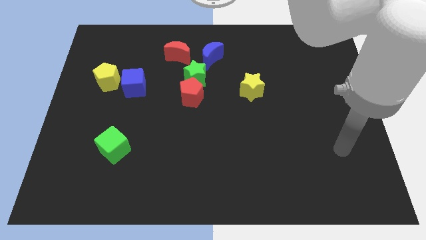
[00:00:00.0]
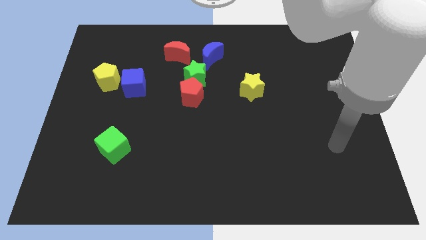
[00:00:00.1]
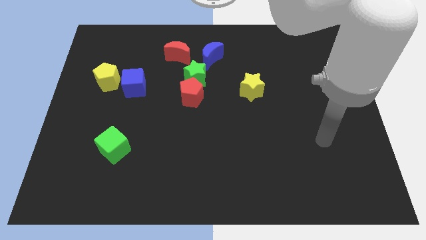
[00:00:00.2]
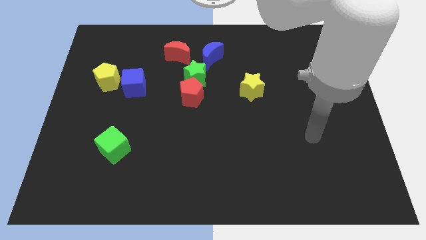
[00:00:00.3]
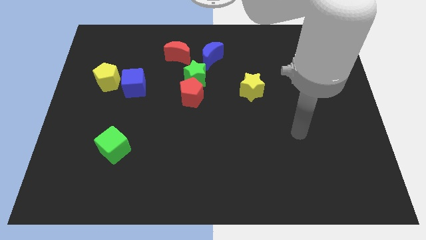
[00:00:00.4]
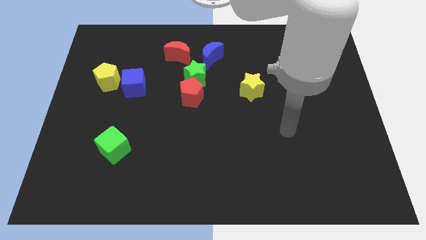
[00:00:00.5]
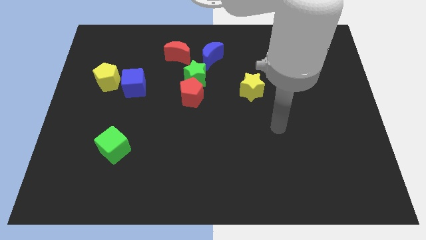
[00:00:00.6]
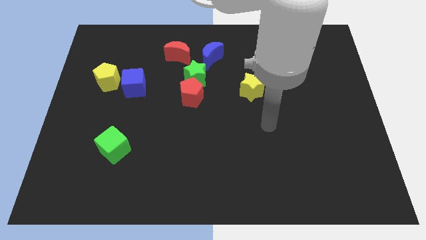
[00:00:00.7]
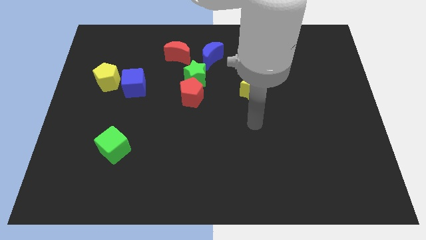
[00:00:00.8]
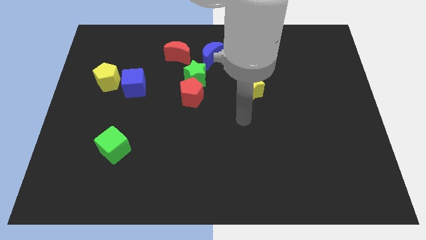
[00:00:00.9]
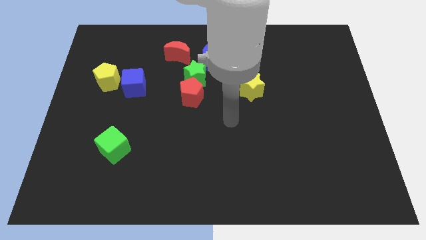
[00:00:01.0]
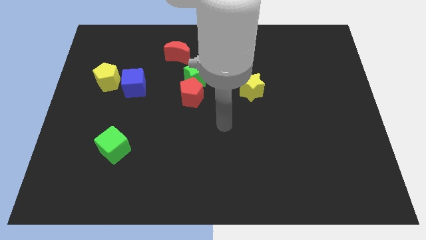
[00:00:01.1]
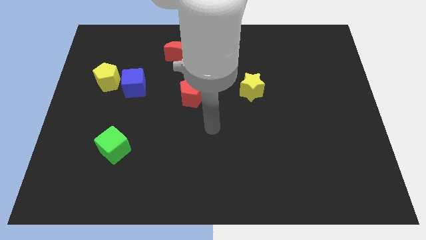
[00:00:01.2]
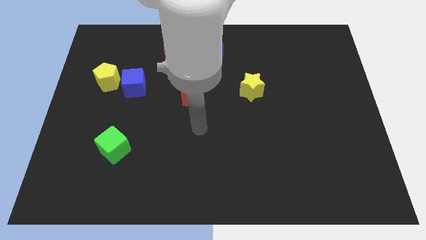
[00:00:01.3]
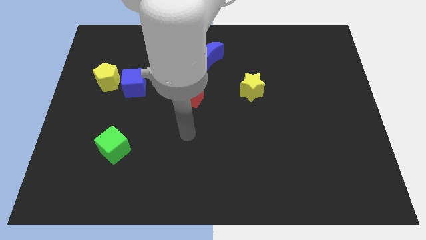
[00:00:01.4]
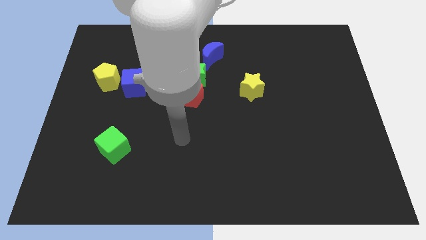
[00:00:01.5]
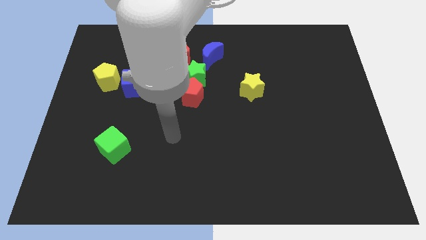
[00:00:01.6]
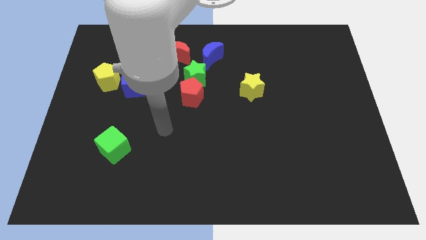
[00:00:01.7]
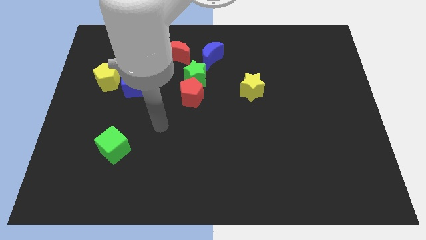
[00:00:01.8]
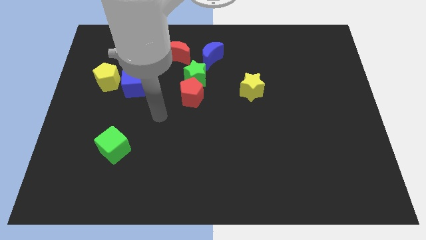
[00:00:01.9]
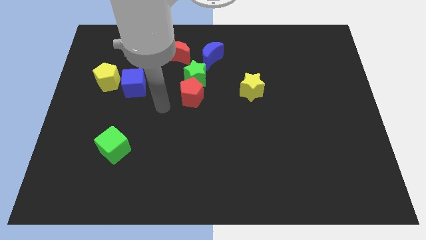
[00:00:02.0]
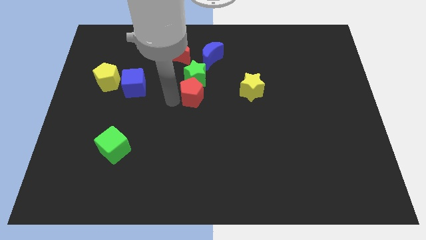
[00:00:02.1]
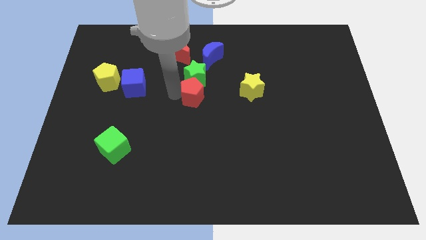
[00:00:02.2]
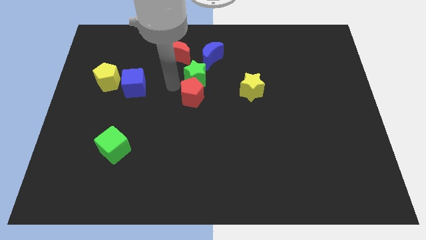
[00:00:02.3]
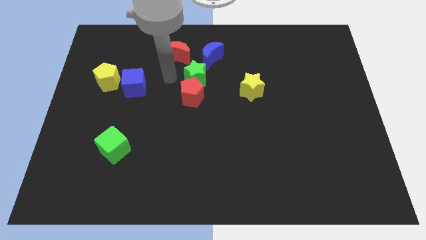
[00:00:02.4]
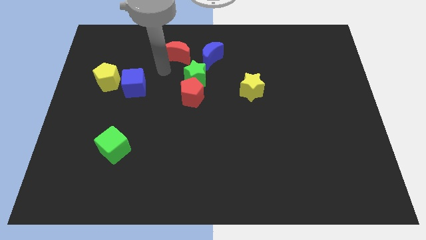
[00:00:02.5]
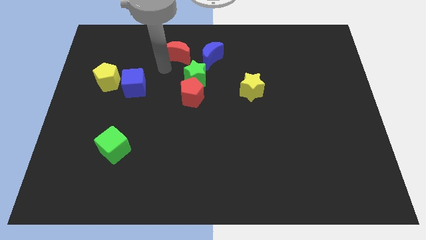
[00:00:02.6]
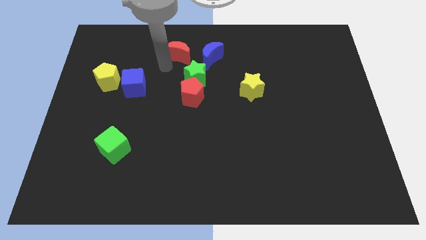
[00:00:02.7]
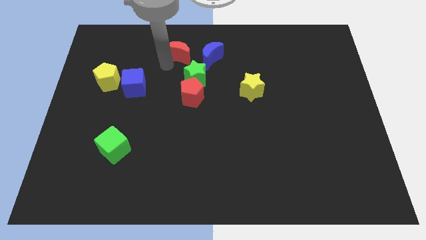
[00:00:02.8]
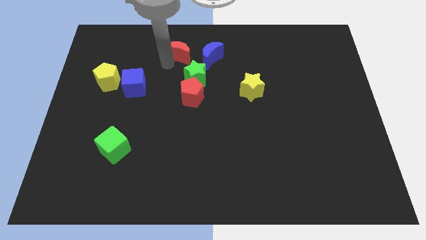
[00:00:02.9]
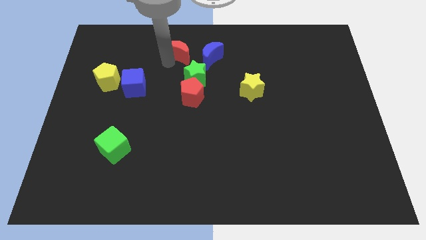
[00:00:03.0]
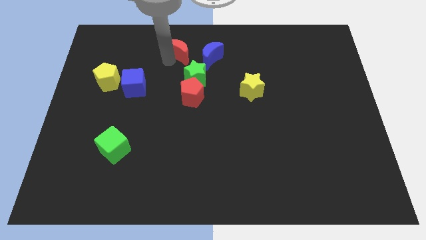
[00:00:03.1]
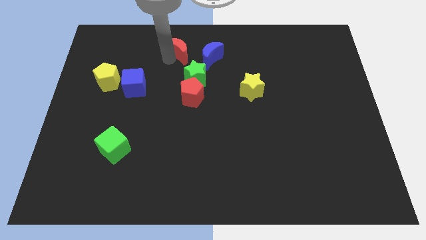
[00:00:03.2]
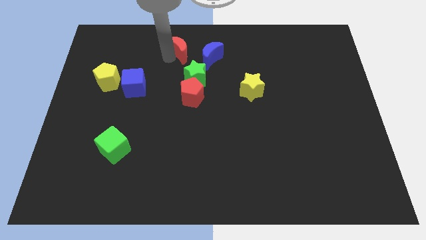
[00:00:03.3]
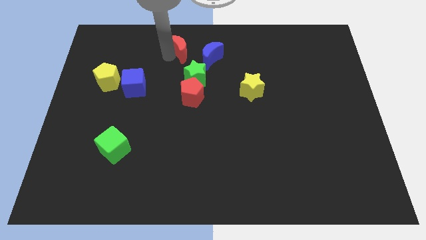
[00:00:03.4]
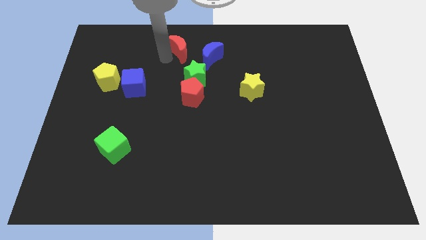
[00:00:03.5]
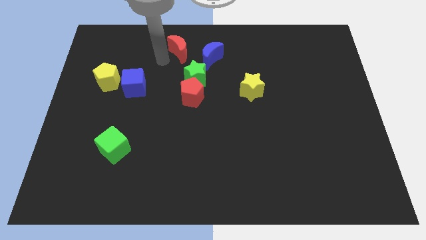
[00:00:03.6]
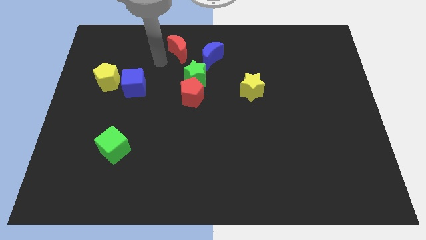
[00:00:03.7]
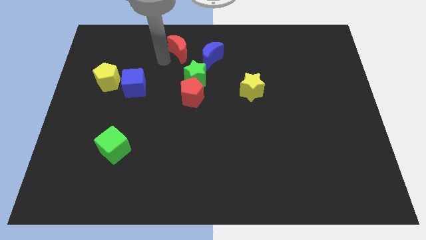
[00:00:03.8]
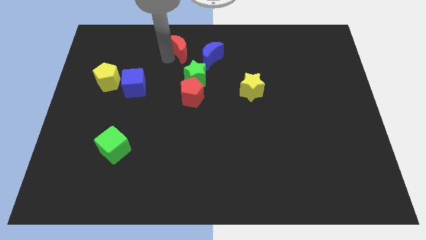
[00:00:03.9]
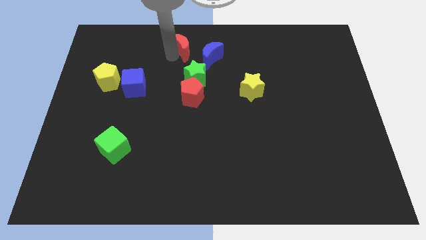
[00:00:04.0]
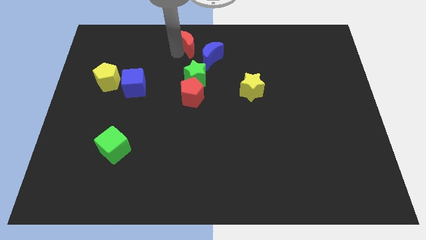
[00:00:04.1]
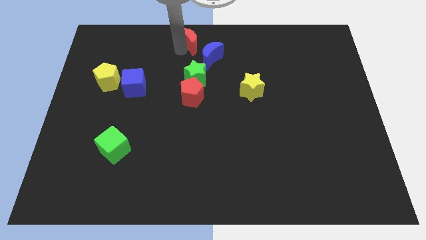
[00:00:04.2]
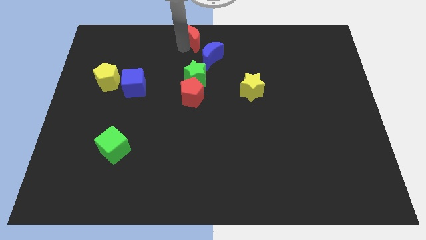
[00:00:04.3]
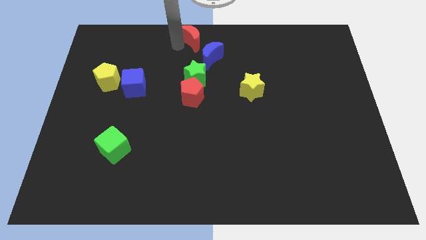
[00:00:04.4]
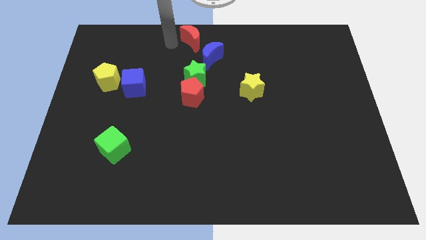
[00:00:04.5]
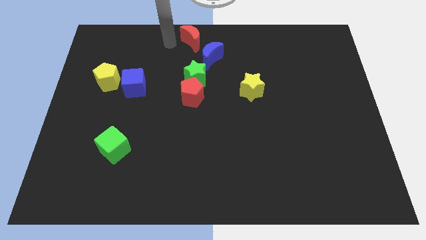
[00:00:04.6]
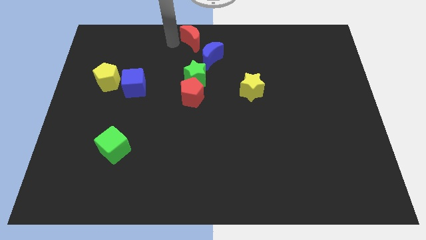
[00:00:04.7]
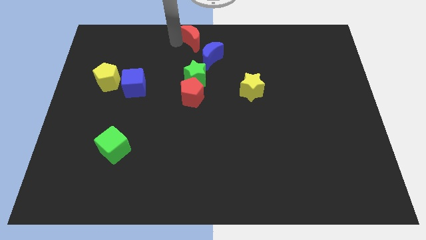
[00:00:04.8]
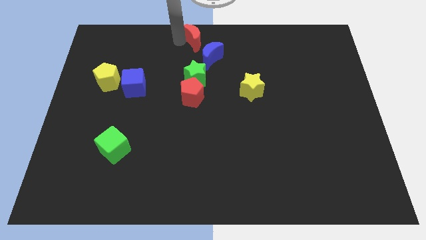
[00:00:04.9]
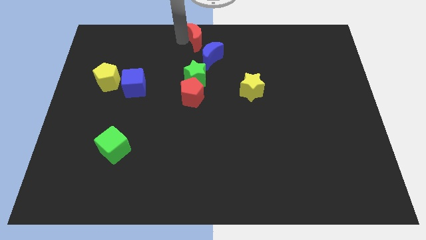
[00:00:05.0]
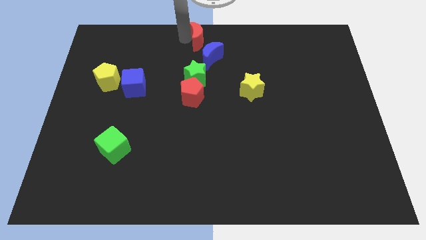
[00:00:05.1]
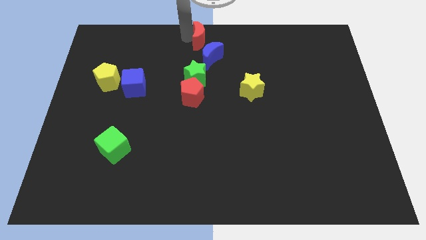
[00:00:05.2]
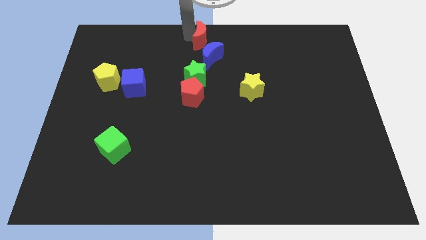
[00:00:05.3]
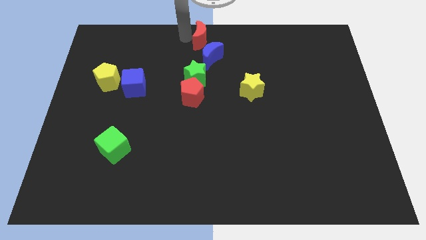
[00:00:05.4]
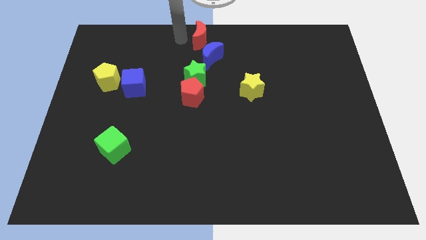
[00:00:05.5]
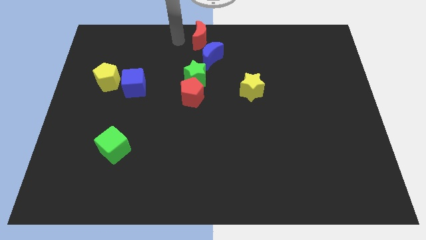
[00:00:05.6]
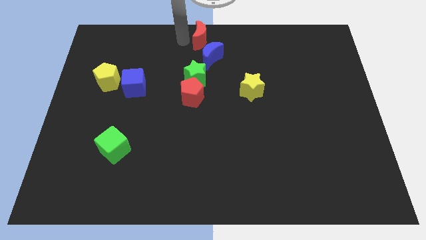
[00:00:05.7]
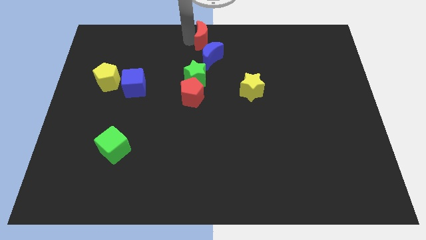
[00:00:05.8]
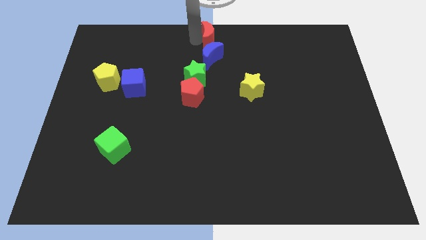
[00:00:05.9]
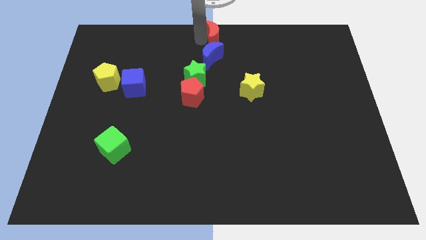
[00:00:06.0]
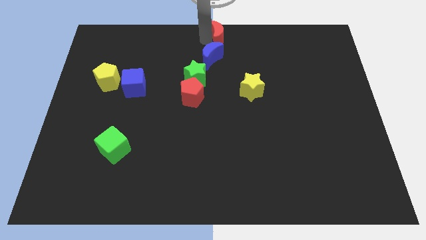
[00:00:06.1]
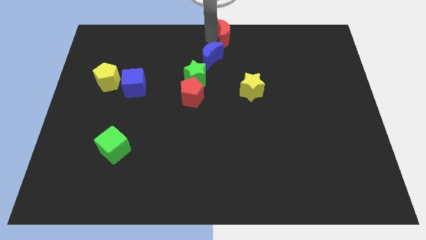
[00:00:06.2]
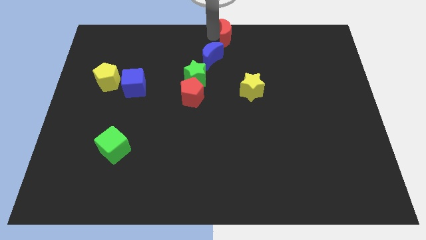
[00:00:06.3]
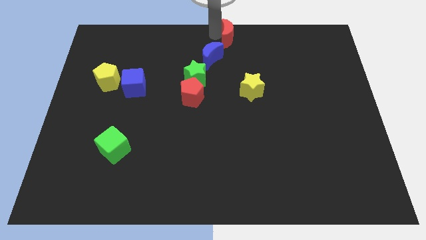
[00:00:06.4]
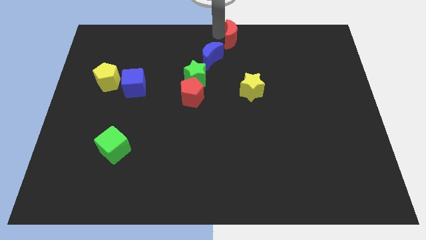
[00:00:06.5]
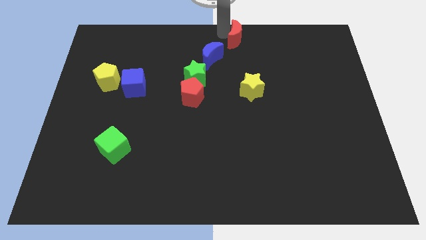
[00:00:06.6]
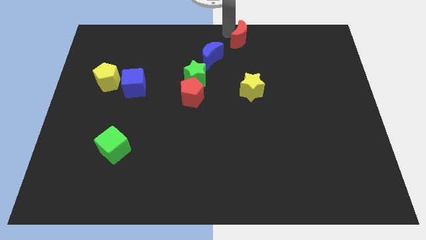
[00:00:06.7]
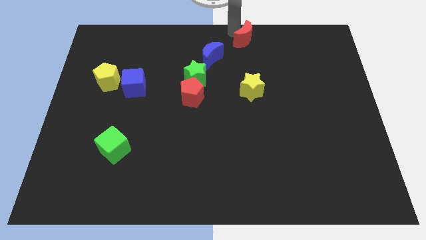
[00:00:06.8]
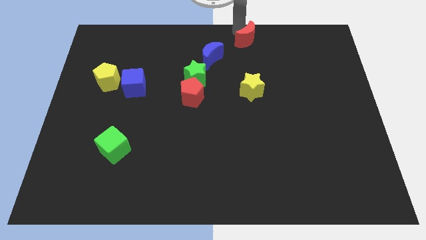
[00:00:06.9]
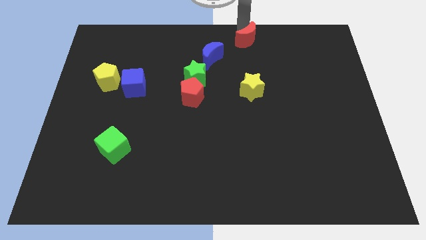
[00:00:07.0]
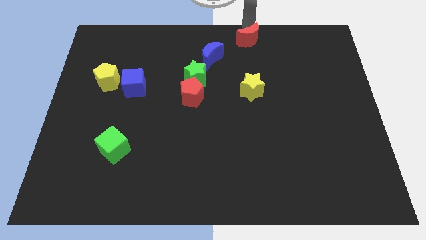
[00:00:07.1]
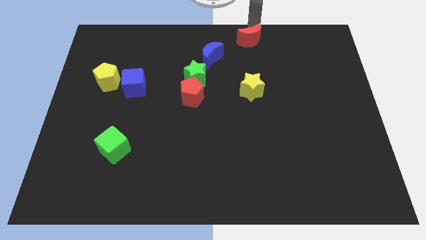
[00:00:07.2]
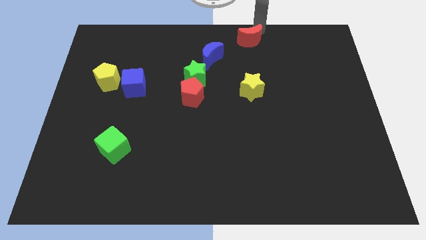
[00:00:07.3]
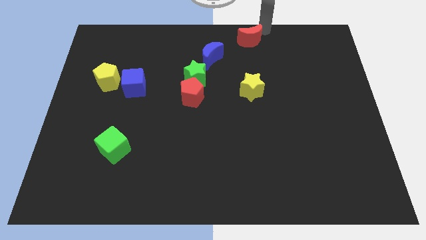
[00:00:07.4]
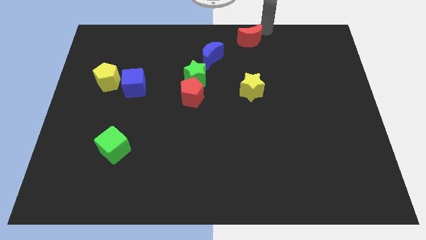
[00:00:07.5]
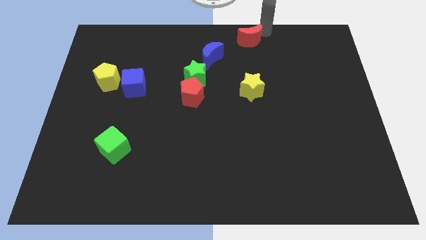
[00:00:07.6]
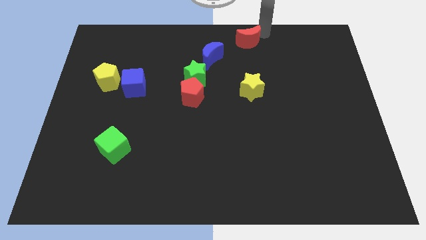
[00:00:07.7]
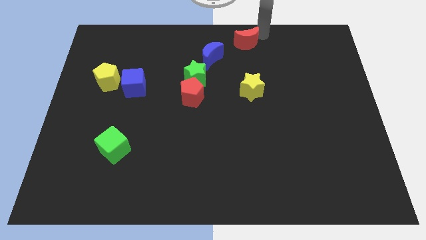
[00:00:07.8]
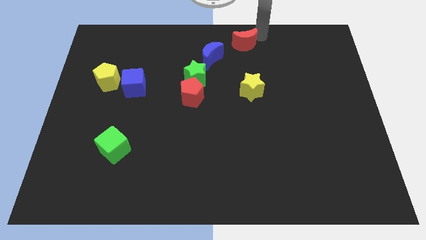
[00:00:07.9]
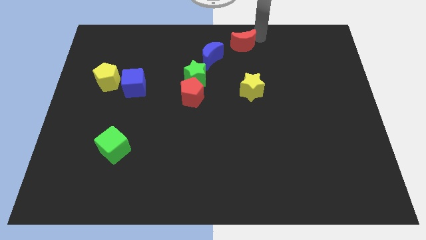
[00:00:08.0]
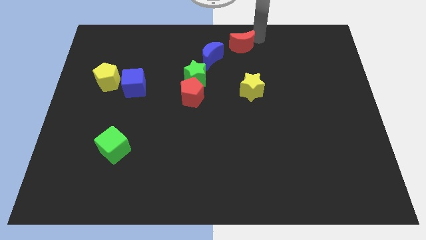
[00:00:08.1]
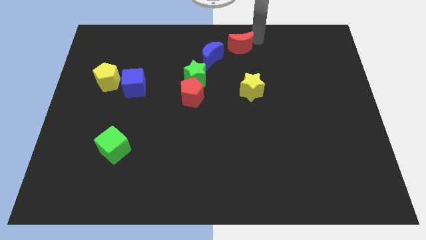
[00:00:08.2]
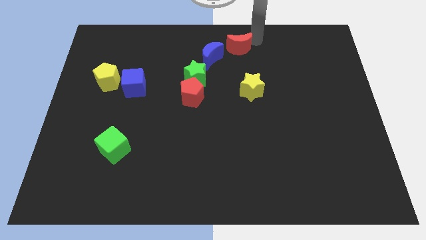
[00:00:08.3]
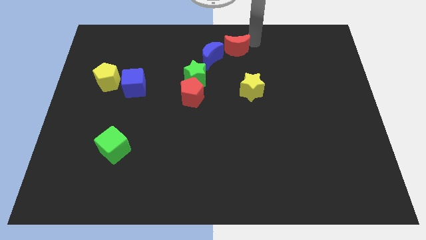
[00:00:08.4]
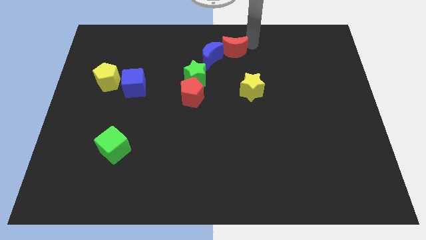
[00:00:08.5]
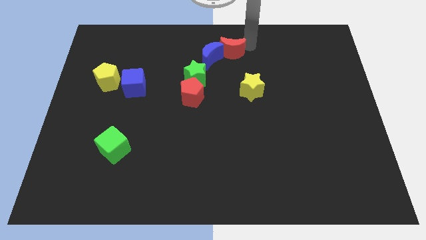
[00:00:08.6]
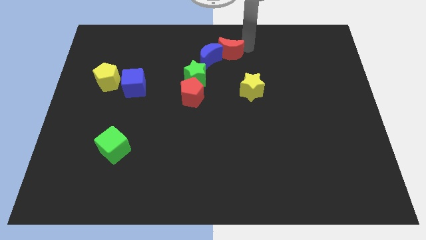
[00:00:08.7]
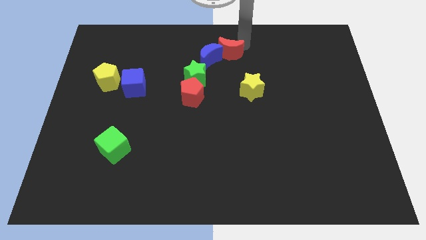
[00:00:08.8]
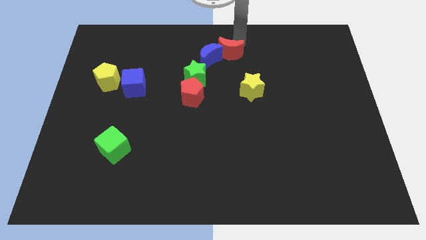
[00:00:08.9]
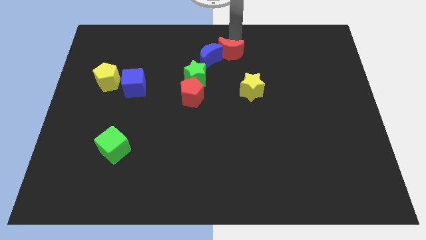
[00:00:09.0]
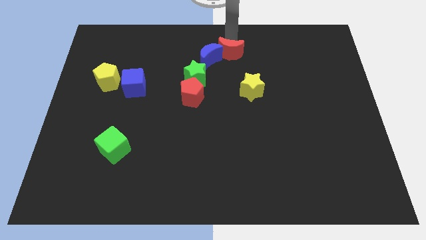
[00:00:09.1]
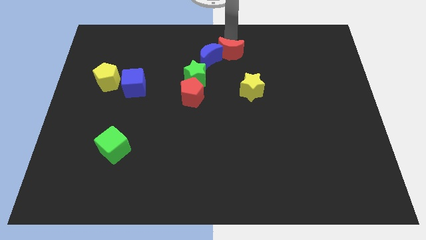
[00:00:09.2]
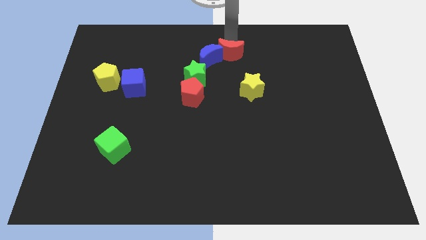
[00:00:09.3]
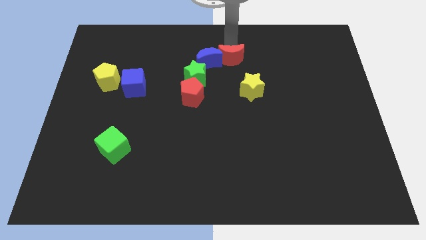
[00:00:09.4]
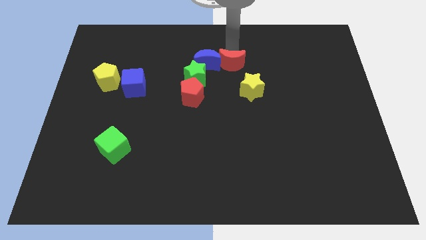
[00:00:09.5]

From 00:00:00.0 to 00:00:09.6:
put the red moon to the bottom right of the blue moon
